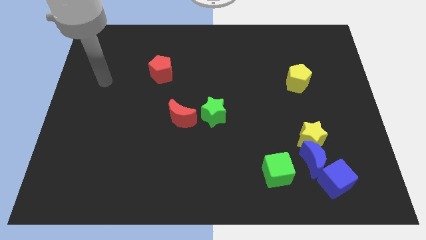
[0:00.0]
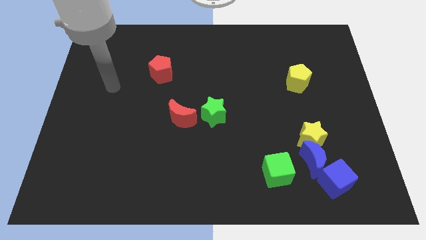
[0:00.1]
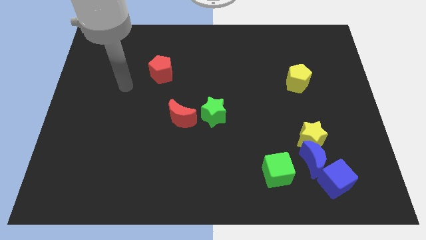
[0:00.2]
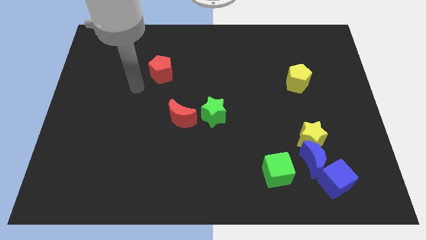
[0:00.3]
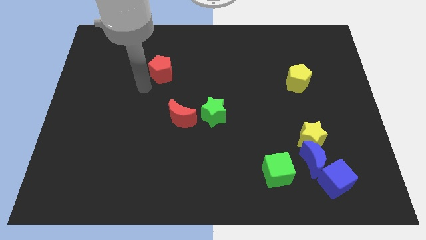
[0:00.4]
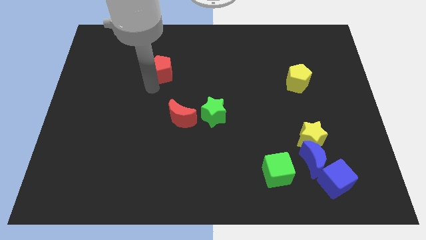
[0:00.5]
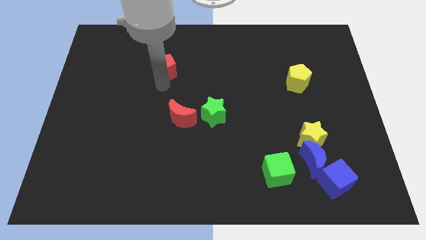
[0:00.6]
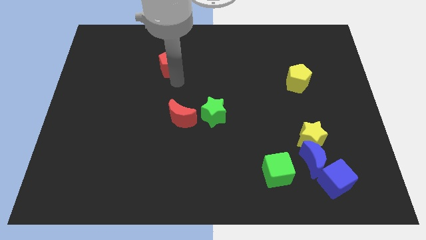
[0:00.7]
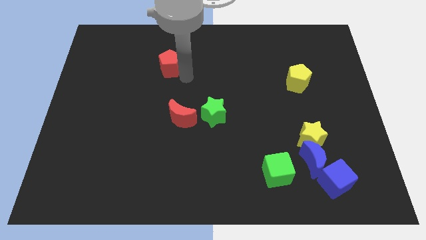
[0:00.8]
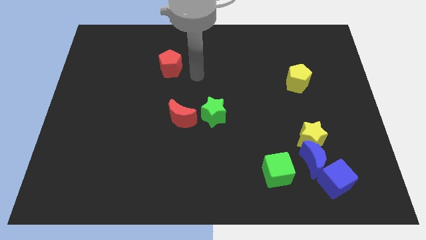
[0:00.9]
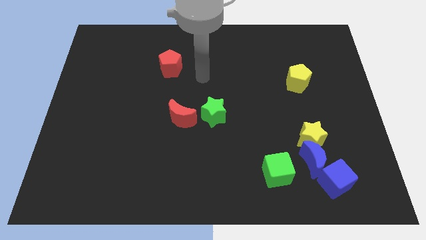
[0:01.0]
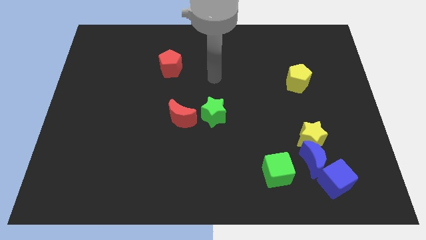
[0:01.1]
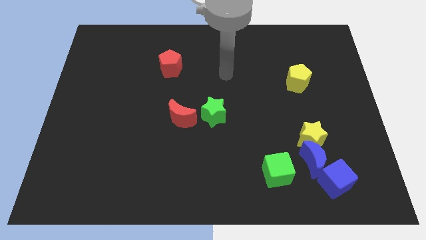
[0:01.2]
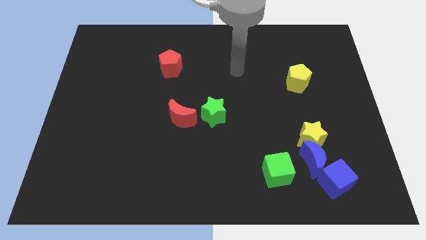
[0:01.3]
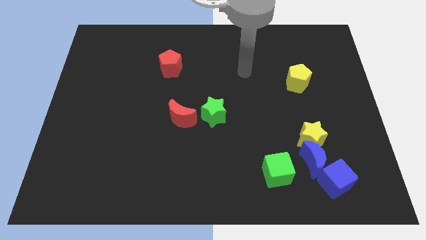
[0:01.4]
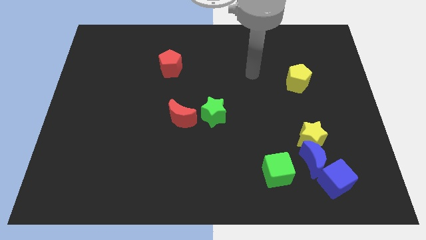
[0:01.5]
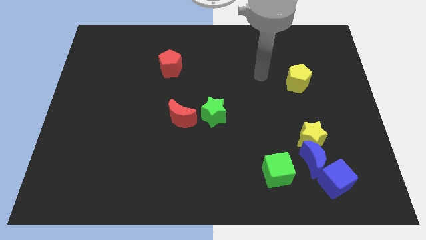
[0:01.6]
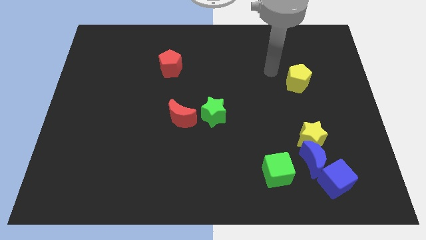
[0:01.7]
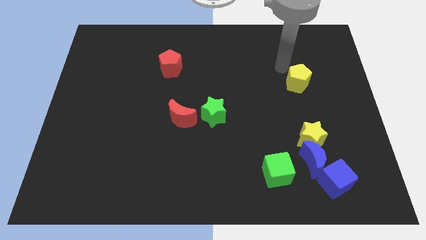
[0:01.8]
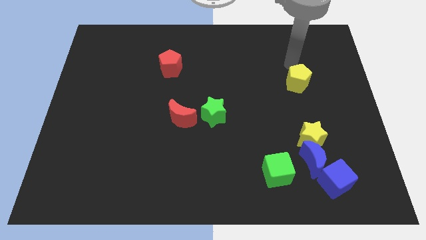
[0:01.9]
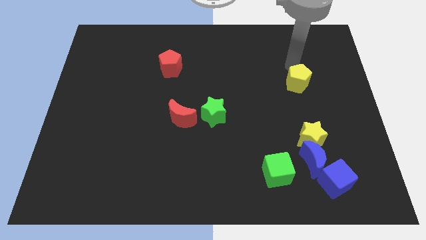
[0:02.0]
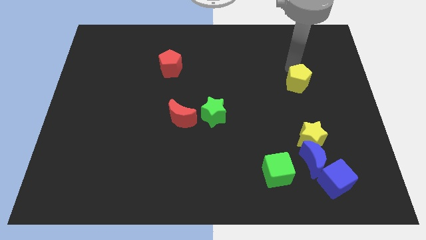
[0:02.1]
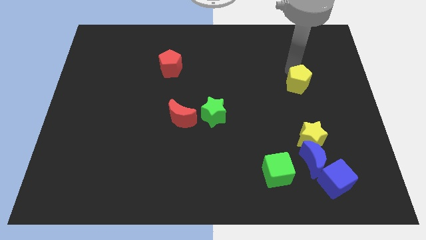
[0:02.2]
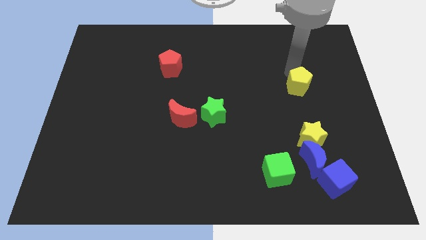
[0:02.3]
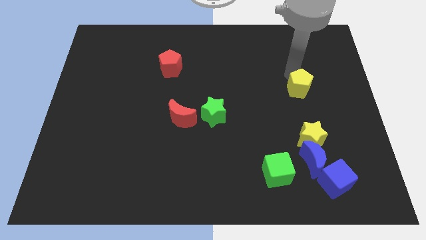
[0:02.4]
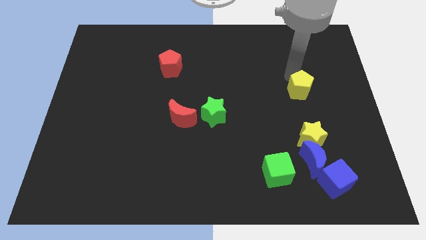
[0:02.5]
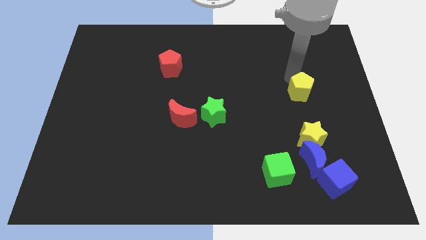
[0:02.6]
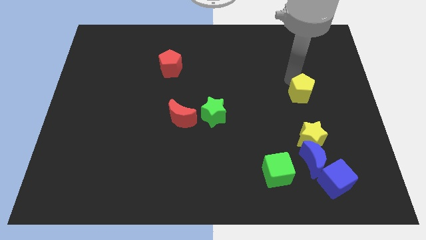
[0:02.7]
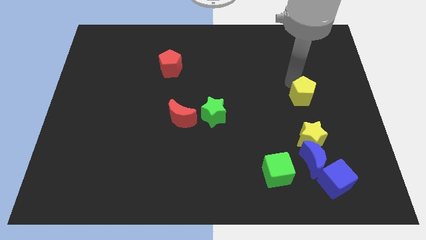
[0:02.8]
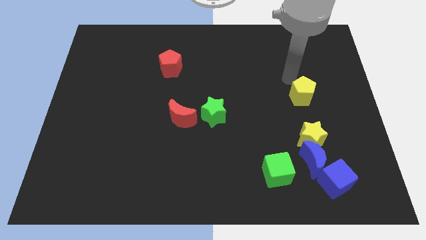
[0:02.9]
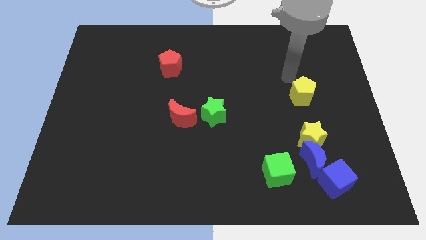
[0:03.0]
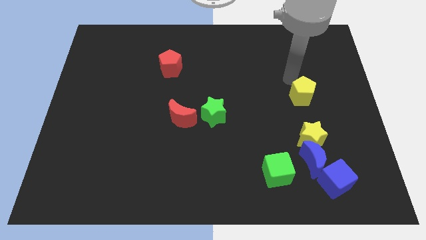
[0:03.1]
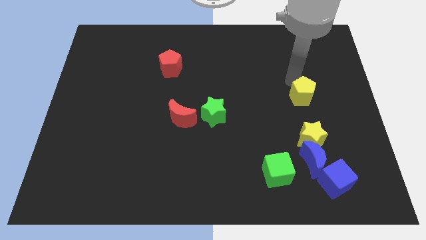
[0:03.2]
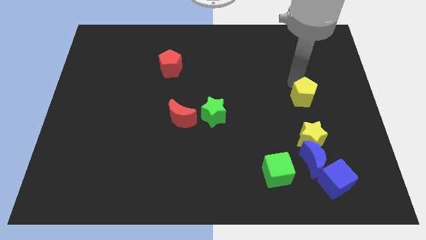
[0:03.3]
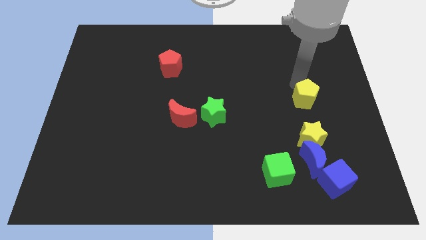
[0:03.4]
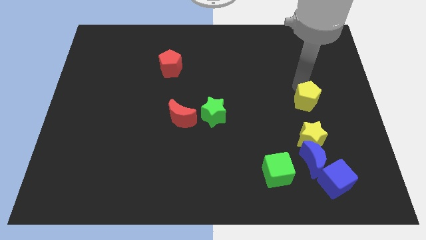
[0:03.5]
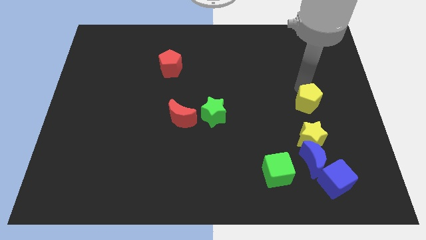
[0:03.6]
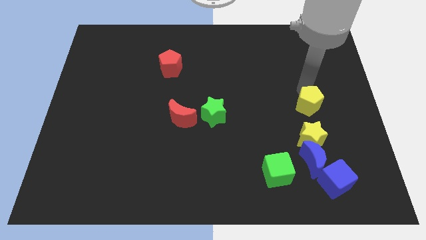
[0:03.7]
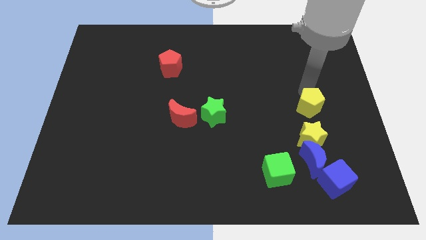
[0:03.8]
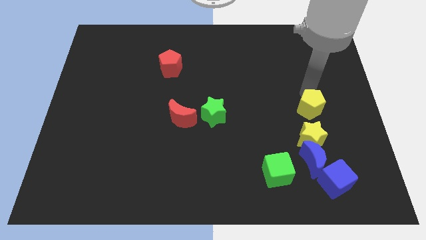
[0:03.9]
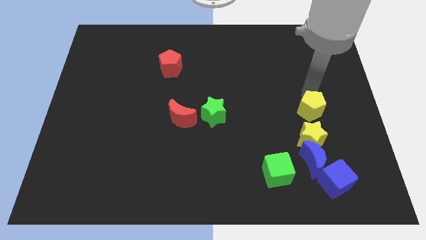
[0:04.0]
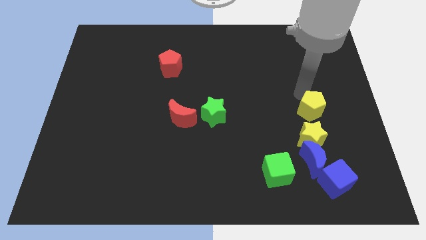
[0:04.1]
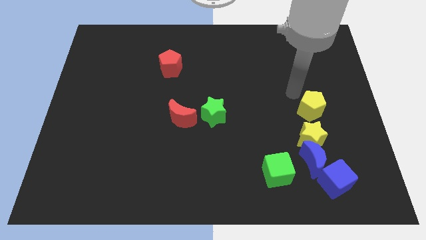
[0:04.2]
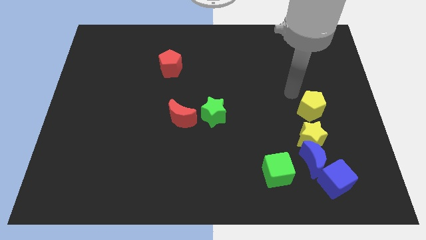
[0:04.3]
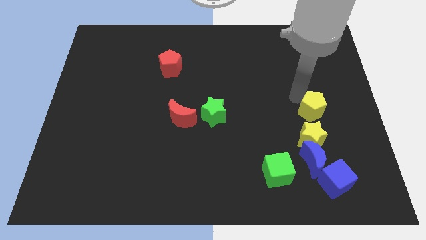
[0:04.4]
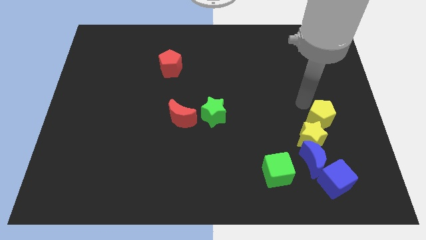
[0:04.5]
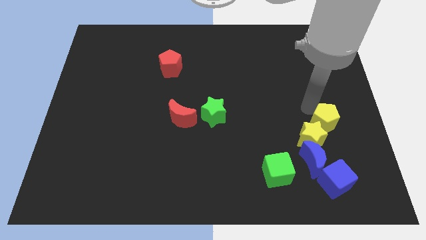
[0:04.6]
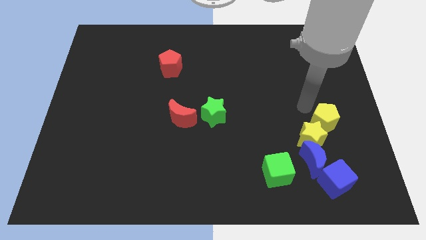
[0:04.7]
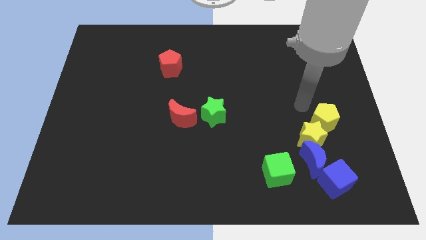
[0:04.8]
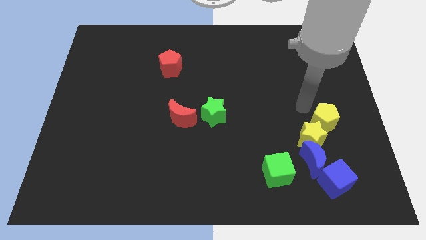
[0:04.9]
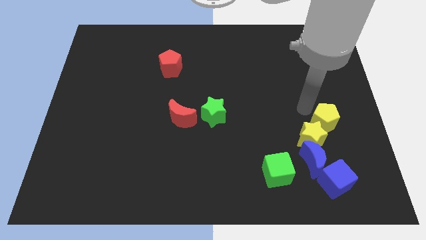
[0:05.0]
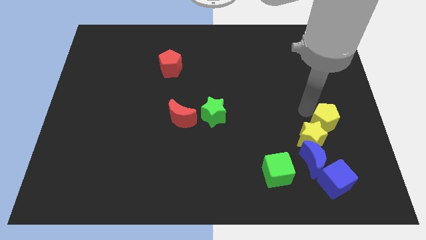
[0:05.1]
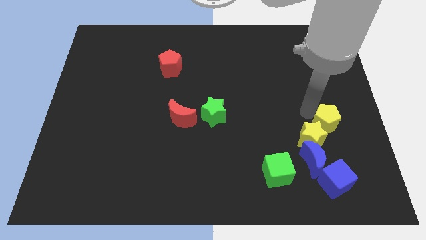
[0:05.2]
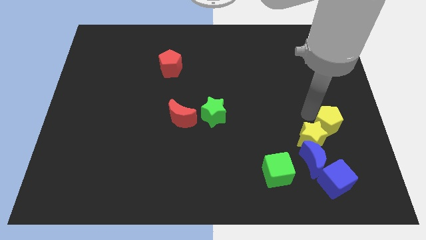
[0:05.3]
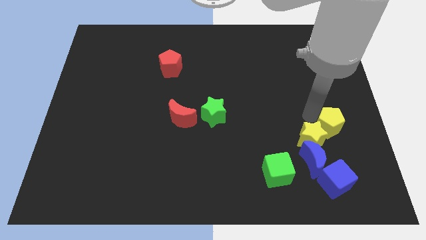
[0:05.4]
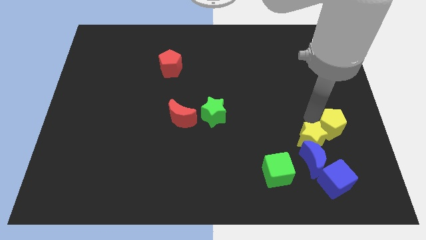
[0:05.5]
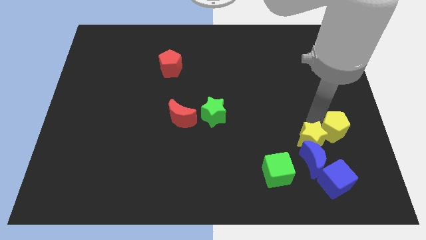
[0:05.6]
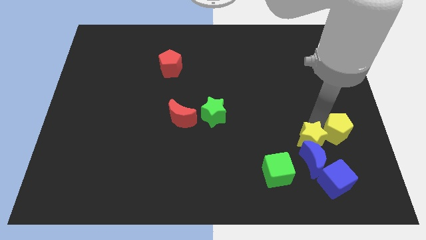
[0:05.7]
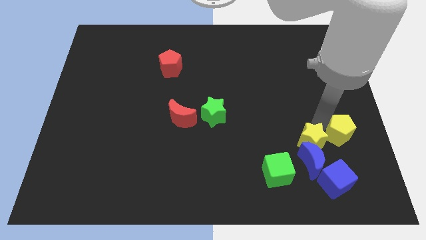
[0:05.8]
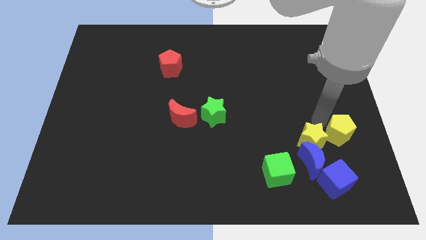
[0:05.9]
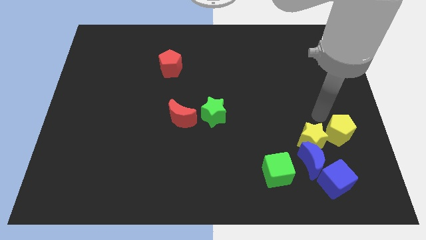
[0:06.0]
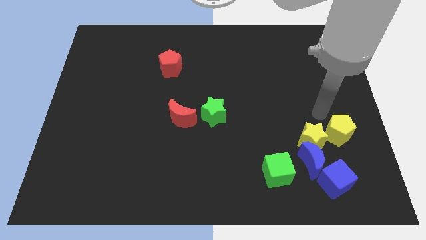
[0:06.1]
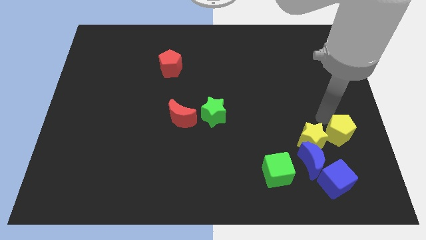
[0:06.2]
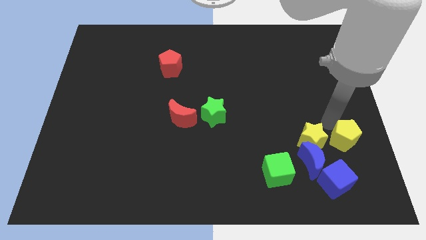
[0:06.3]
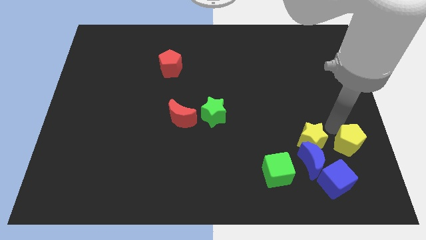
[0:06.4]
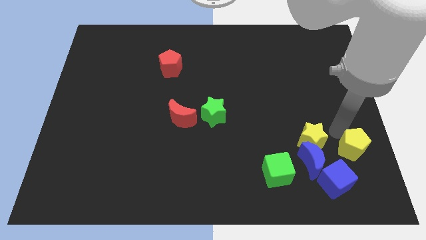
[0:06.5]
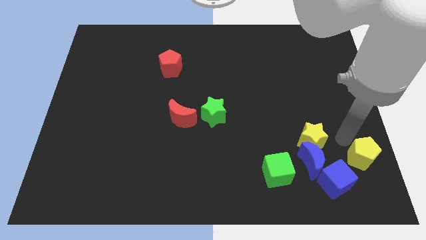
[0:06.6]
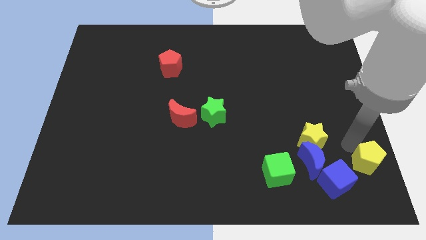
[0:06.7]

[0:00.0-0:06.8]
push the yellow pentagon to the bottom right of the board
